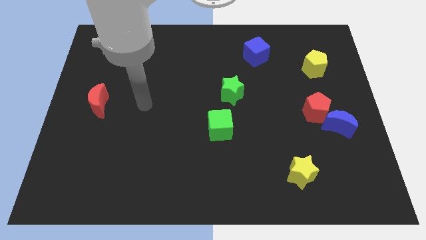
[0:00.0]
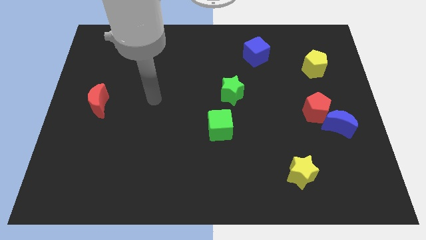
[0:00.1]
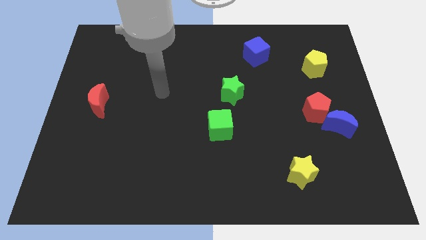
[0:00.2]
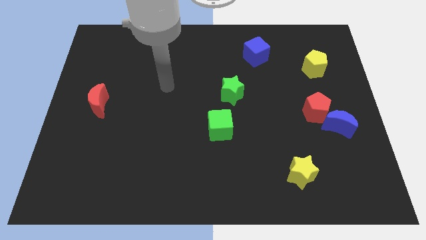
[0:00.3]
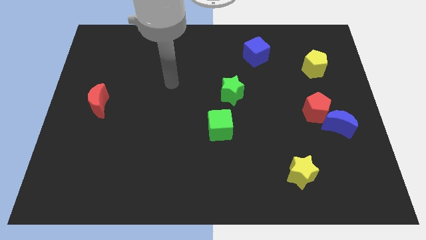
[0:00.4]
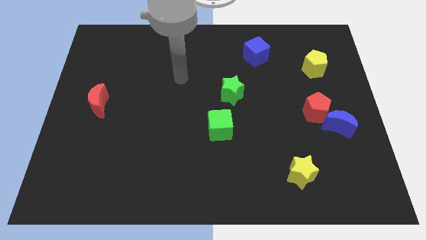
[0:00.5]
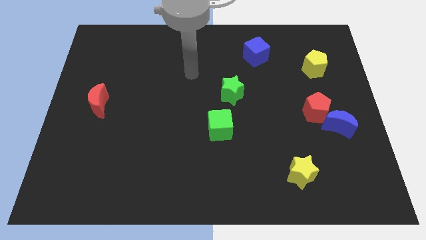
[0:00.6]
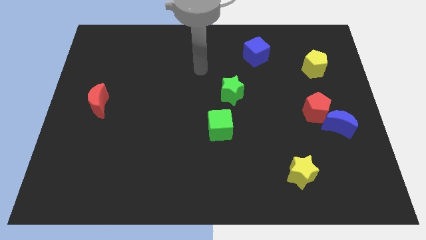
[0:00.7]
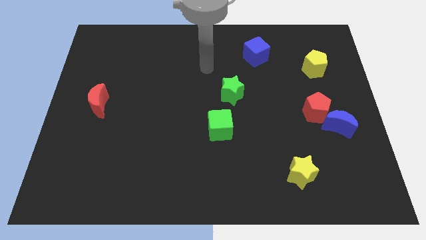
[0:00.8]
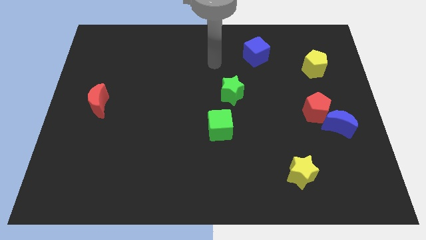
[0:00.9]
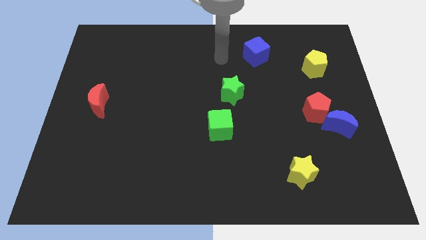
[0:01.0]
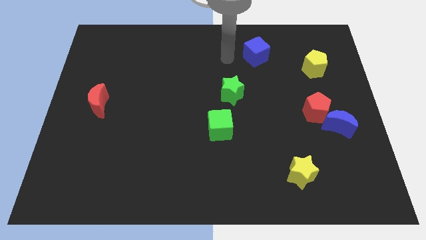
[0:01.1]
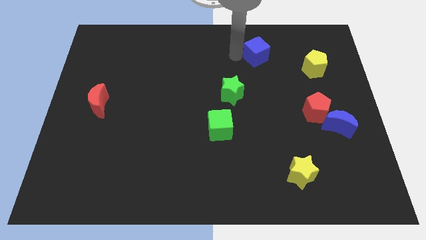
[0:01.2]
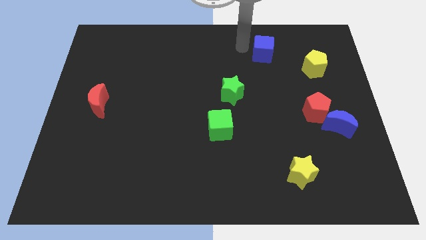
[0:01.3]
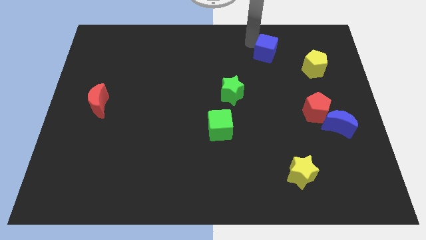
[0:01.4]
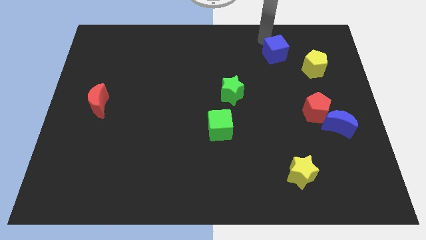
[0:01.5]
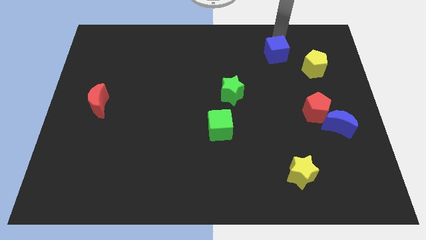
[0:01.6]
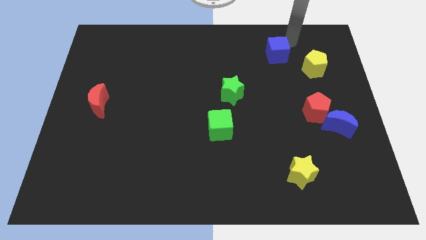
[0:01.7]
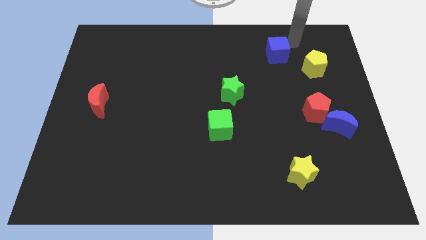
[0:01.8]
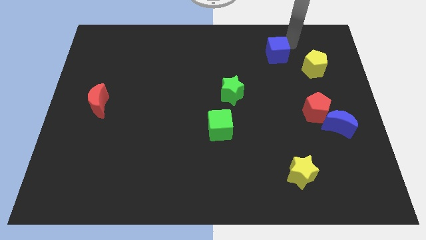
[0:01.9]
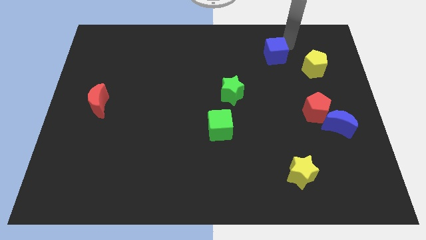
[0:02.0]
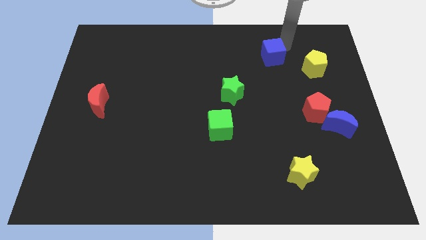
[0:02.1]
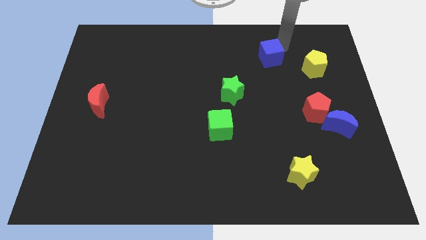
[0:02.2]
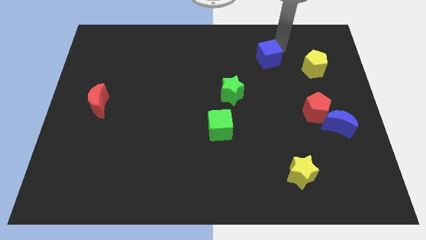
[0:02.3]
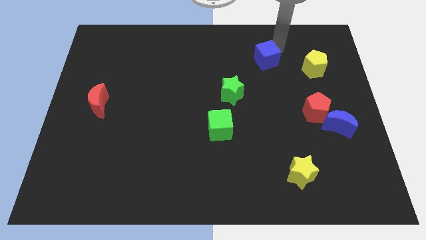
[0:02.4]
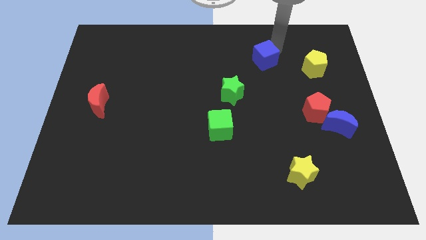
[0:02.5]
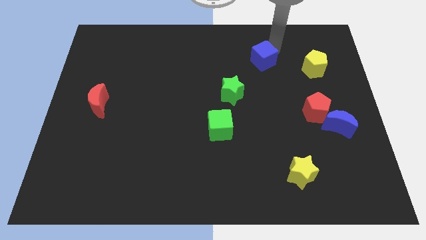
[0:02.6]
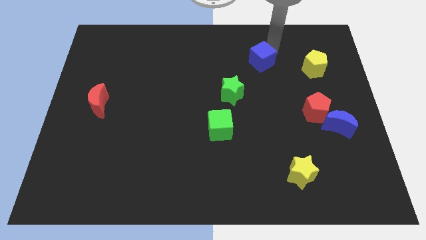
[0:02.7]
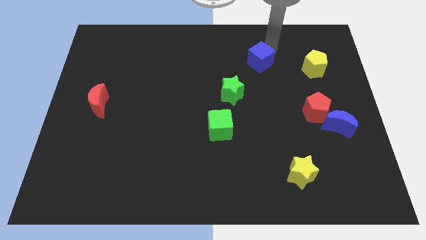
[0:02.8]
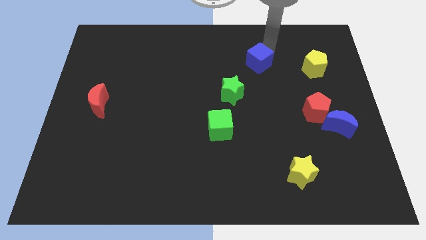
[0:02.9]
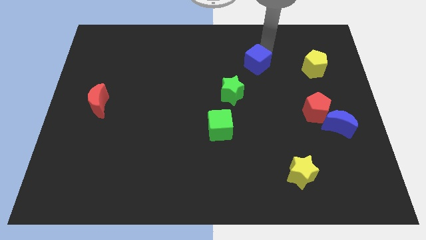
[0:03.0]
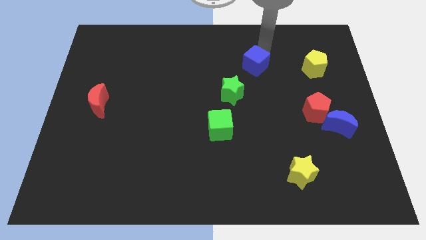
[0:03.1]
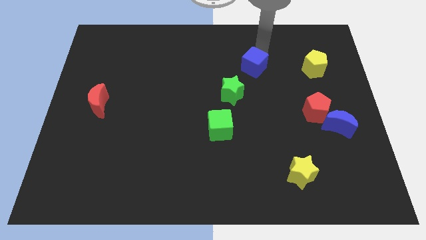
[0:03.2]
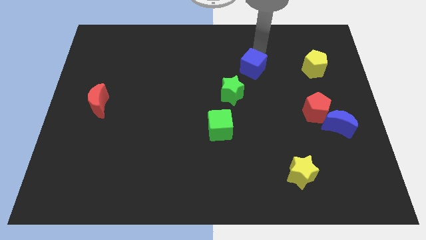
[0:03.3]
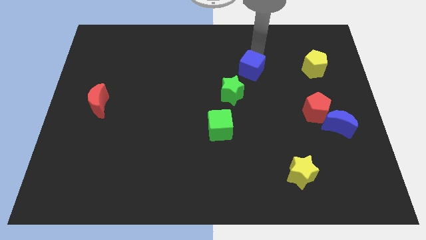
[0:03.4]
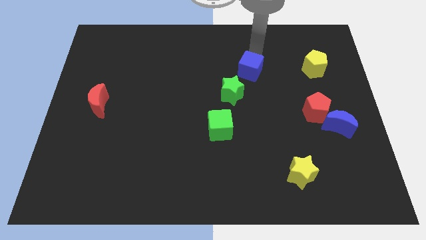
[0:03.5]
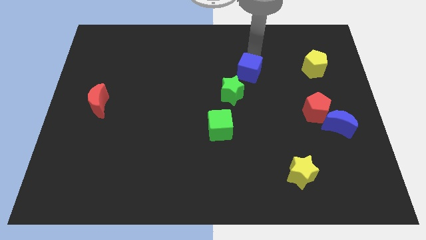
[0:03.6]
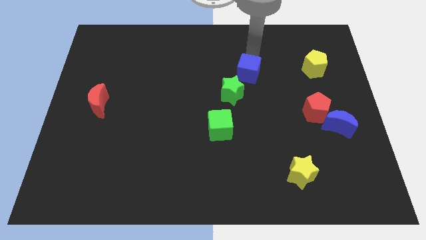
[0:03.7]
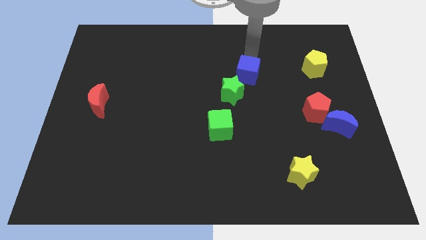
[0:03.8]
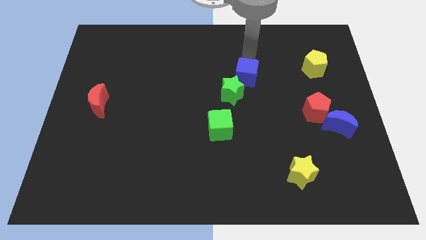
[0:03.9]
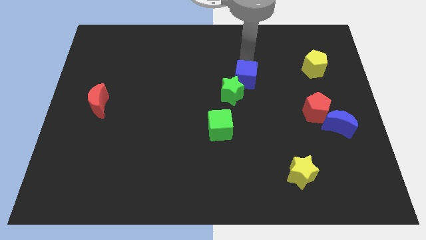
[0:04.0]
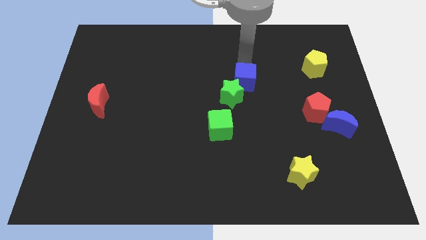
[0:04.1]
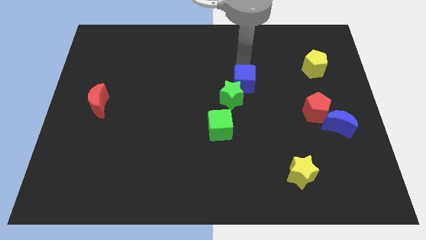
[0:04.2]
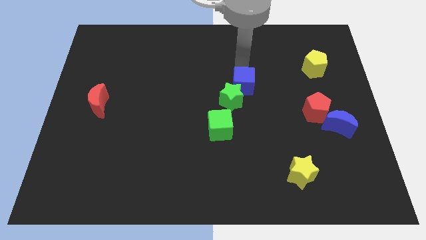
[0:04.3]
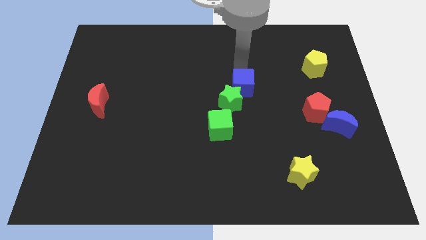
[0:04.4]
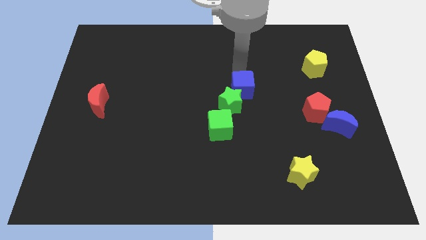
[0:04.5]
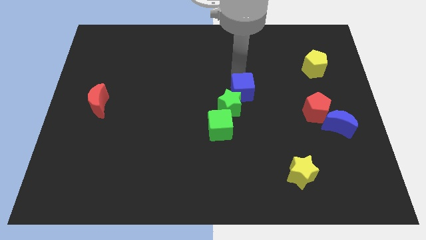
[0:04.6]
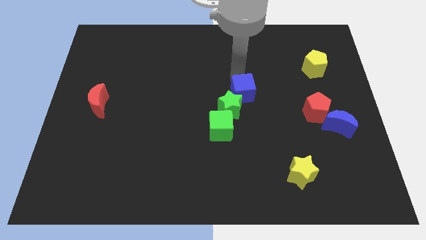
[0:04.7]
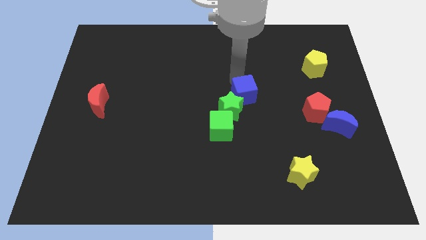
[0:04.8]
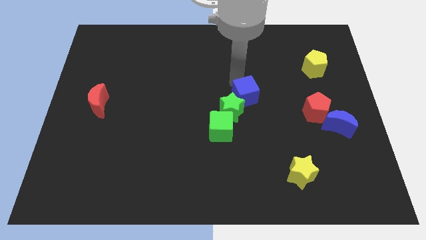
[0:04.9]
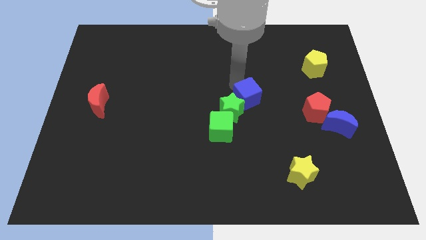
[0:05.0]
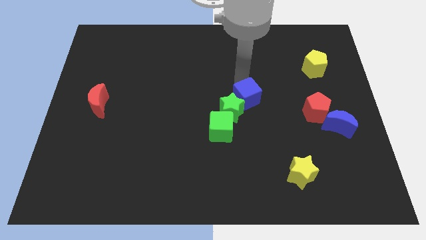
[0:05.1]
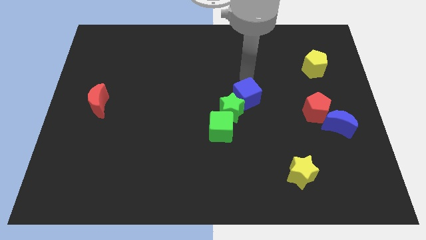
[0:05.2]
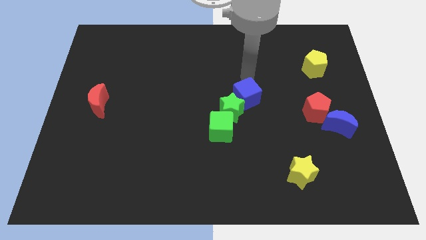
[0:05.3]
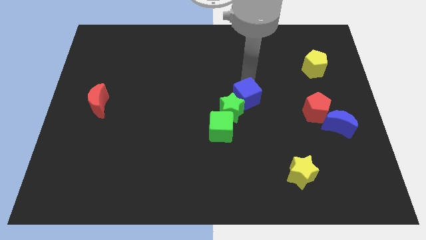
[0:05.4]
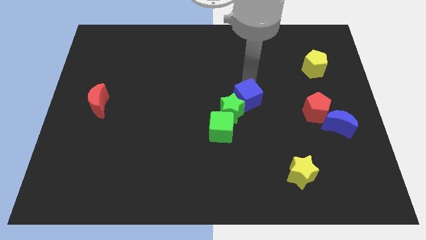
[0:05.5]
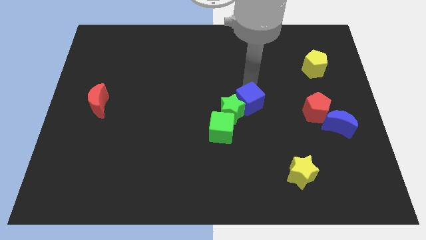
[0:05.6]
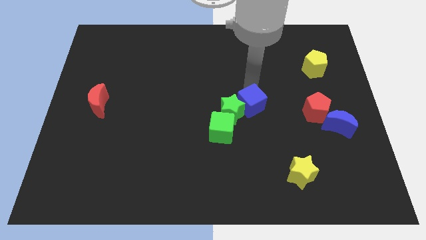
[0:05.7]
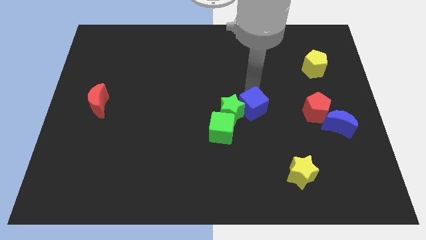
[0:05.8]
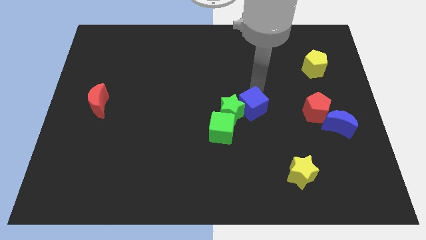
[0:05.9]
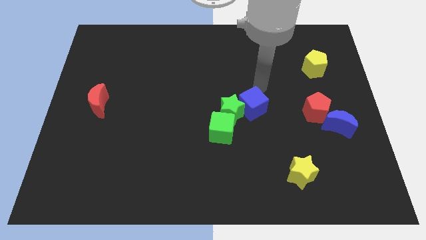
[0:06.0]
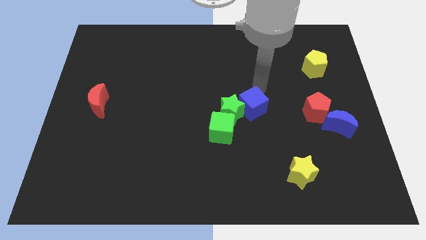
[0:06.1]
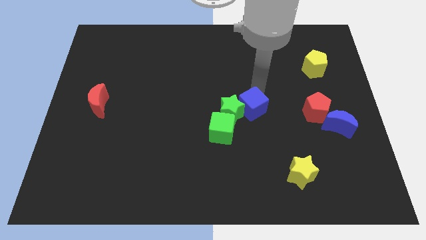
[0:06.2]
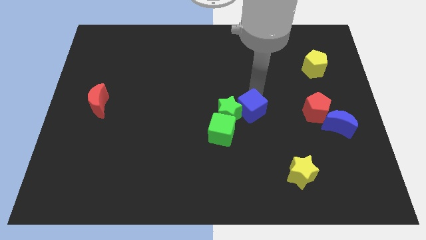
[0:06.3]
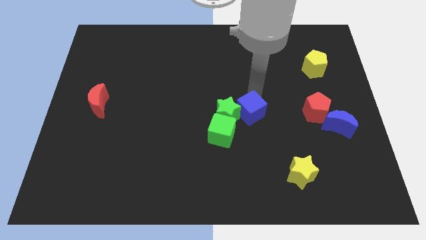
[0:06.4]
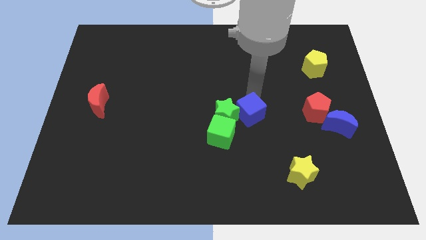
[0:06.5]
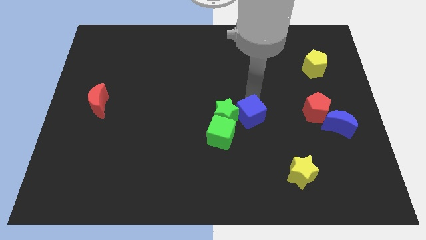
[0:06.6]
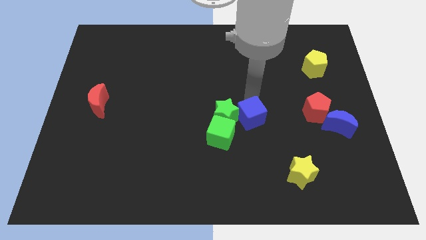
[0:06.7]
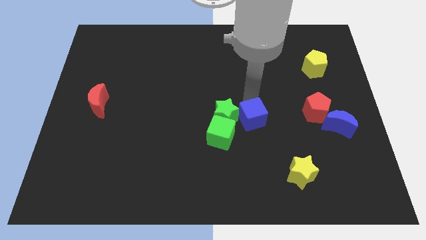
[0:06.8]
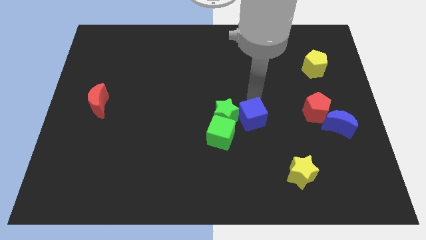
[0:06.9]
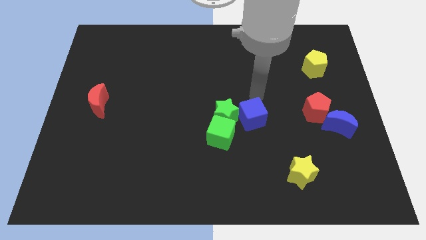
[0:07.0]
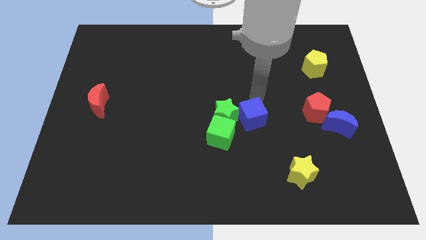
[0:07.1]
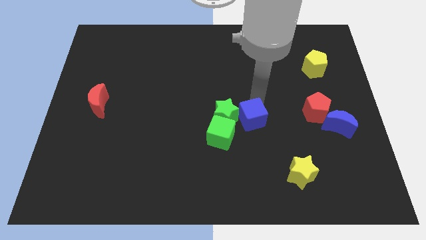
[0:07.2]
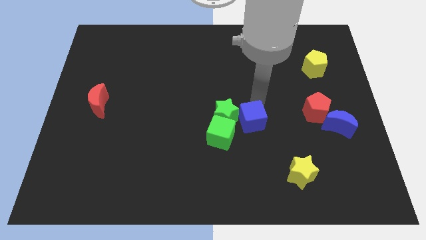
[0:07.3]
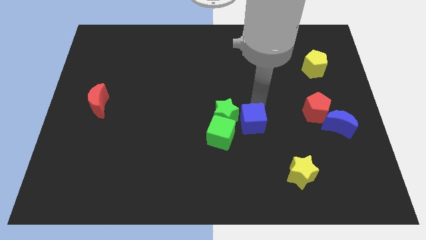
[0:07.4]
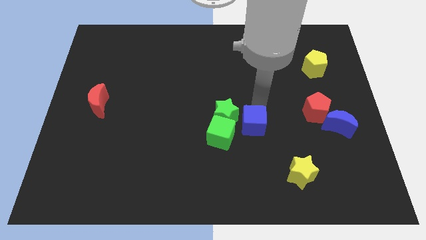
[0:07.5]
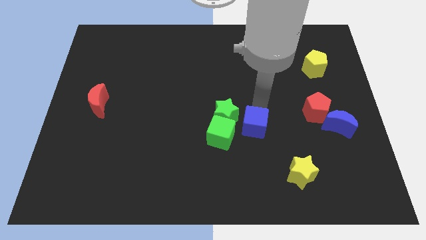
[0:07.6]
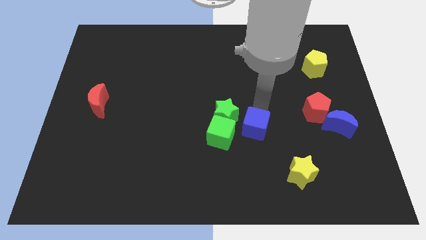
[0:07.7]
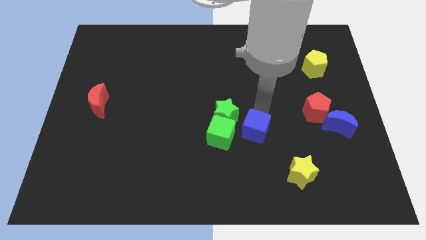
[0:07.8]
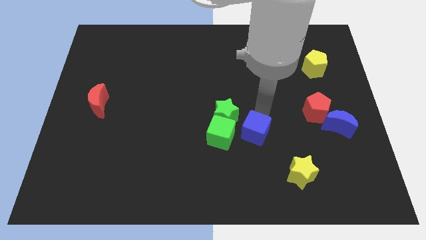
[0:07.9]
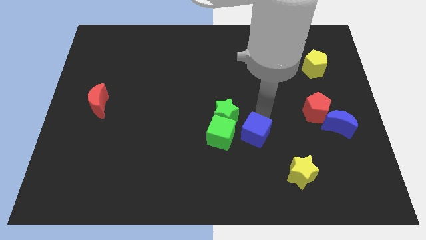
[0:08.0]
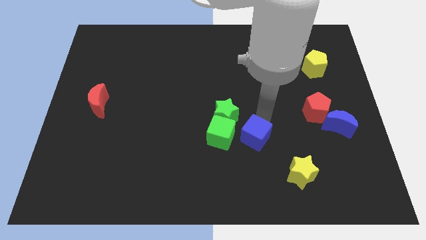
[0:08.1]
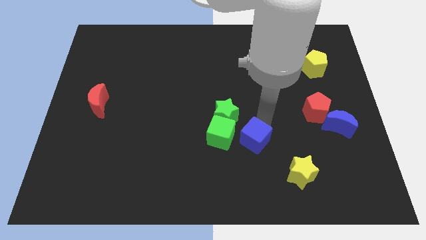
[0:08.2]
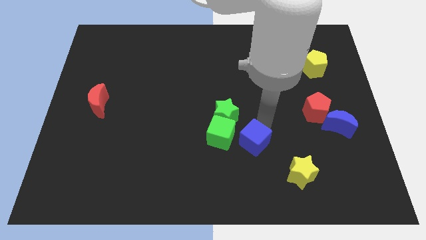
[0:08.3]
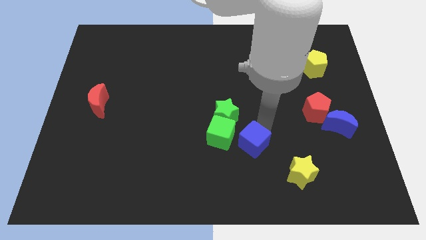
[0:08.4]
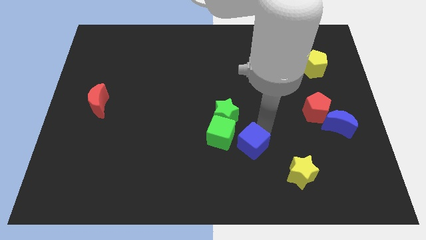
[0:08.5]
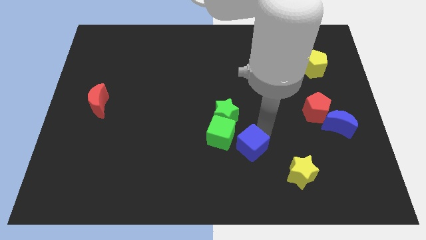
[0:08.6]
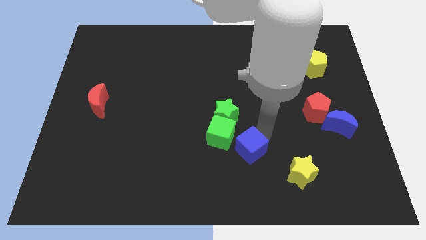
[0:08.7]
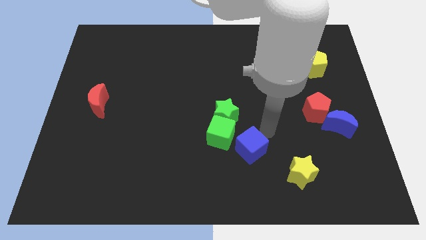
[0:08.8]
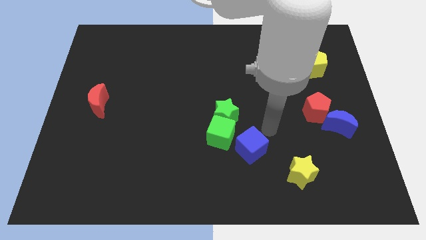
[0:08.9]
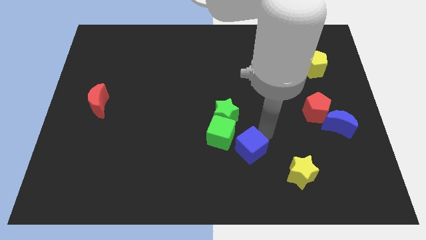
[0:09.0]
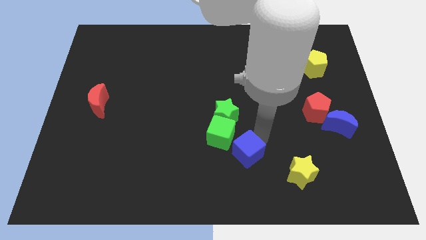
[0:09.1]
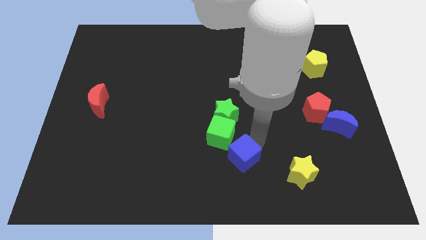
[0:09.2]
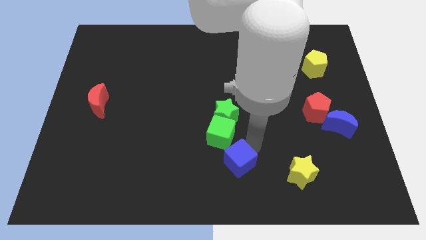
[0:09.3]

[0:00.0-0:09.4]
put the blue cube to the bottom
